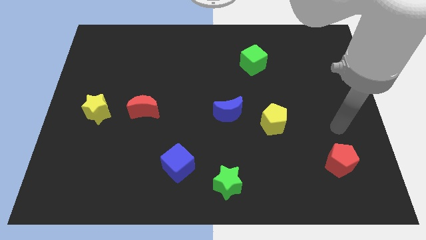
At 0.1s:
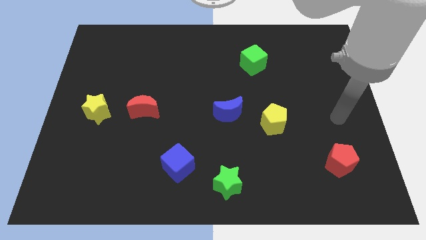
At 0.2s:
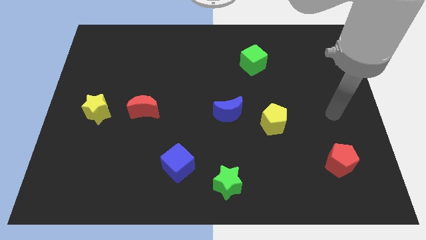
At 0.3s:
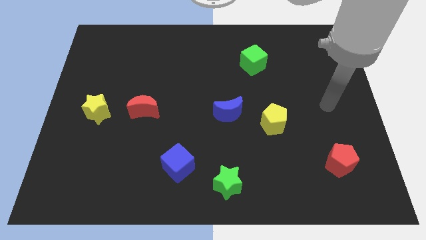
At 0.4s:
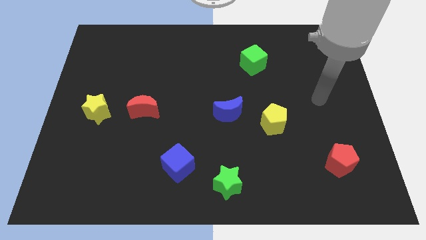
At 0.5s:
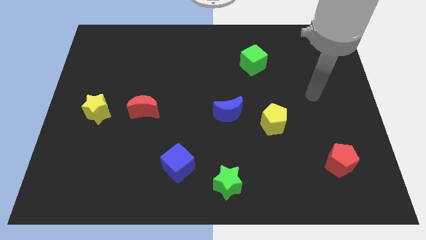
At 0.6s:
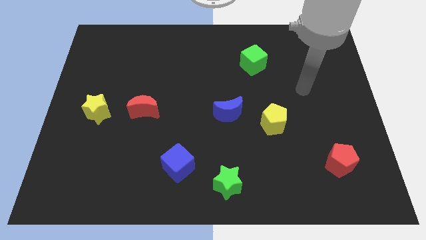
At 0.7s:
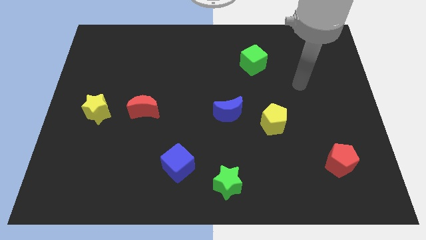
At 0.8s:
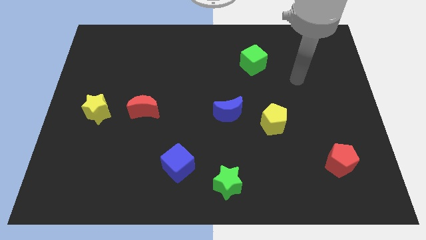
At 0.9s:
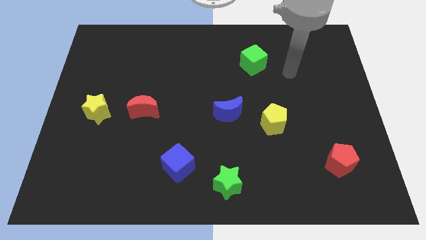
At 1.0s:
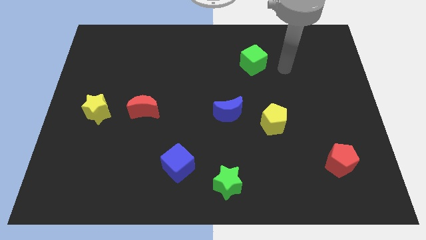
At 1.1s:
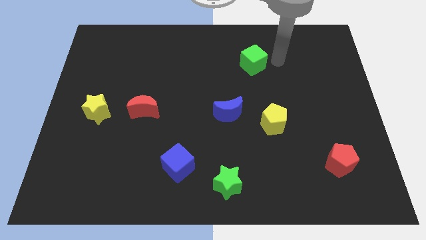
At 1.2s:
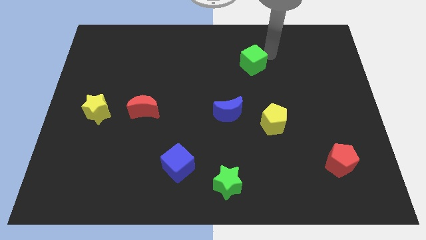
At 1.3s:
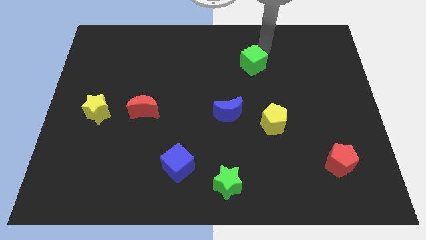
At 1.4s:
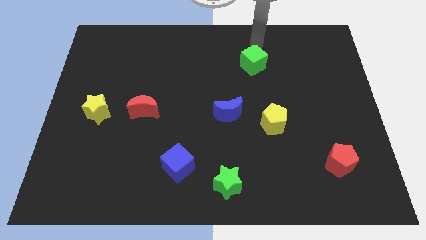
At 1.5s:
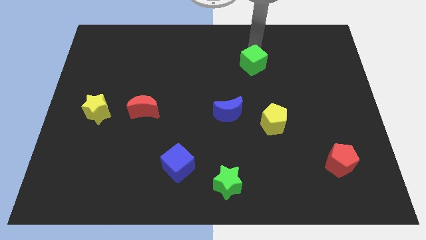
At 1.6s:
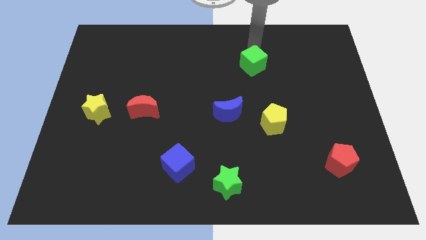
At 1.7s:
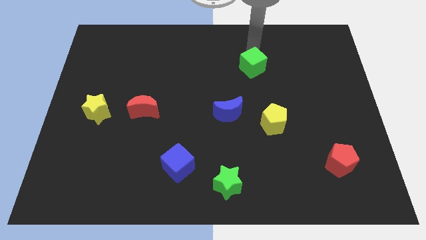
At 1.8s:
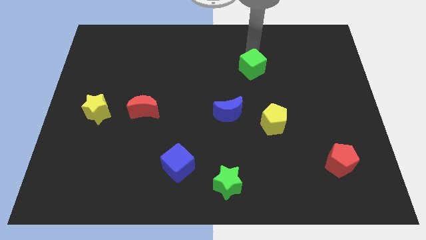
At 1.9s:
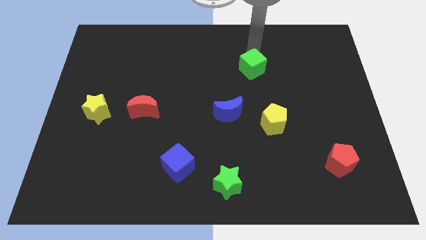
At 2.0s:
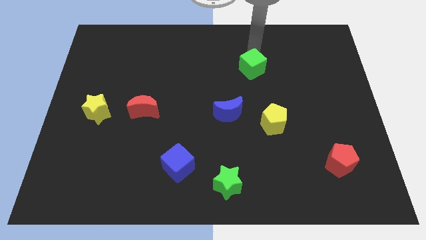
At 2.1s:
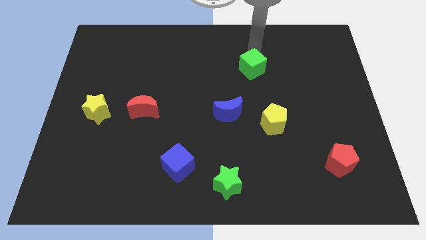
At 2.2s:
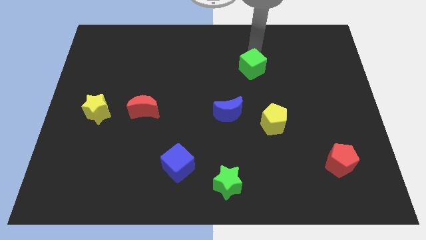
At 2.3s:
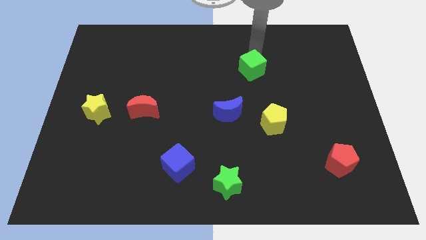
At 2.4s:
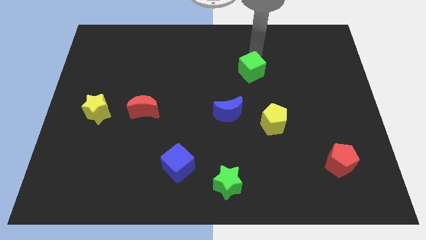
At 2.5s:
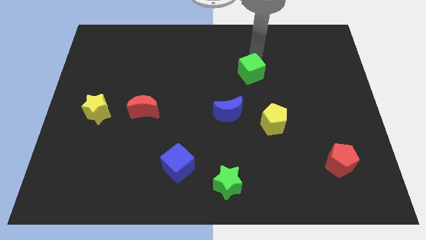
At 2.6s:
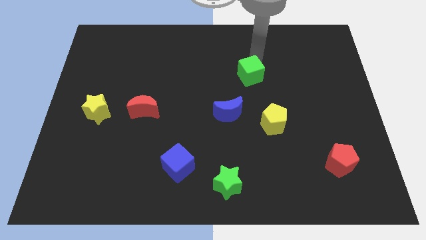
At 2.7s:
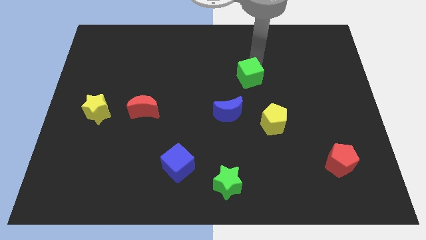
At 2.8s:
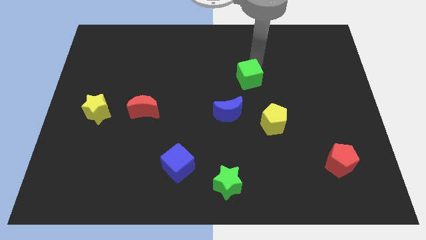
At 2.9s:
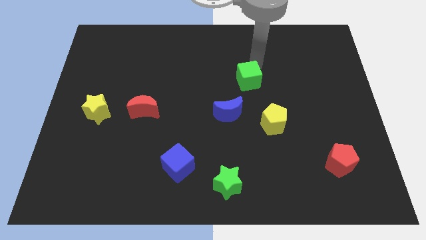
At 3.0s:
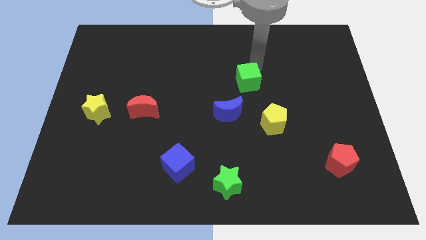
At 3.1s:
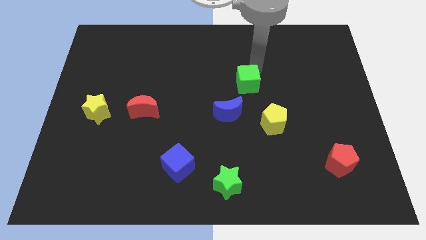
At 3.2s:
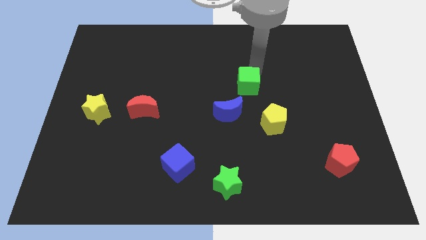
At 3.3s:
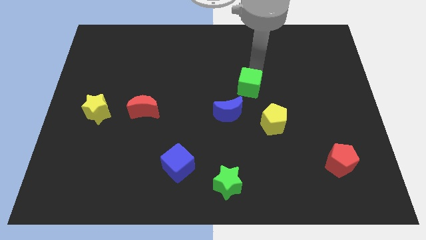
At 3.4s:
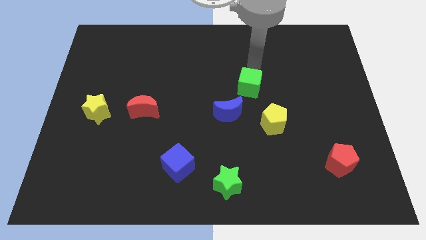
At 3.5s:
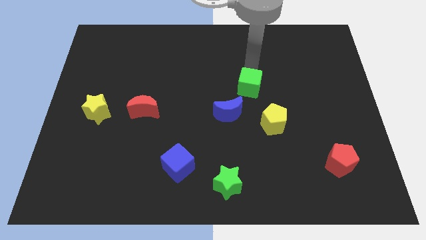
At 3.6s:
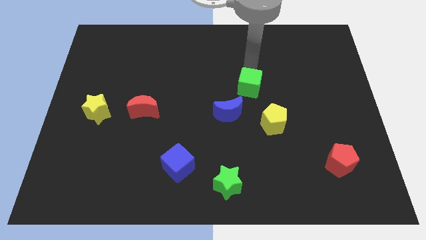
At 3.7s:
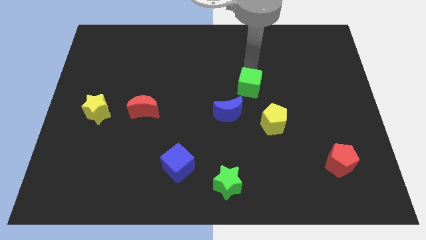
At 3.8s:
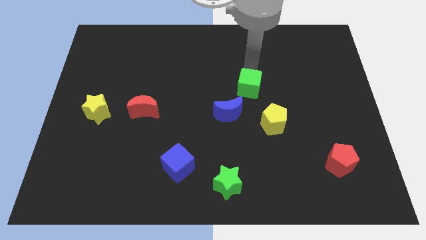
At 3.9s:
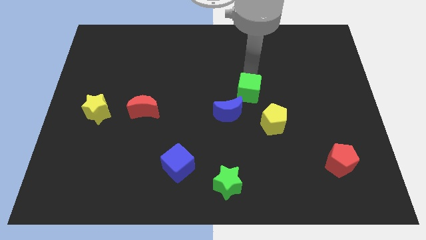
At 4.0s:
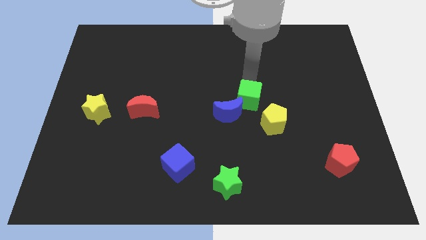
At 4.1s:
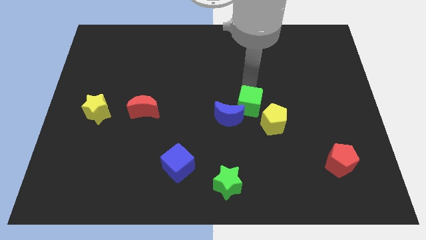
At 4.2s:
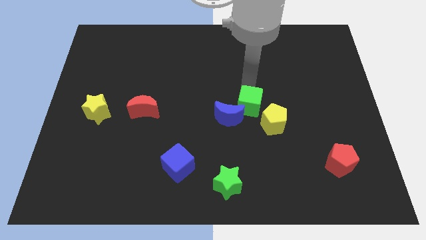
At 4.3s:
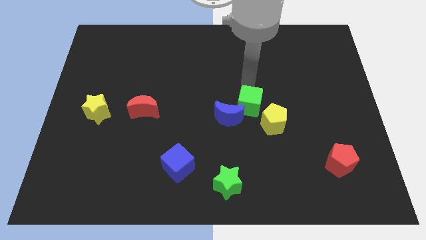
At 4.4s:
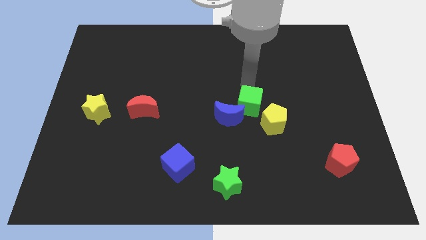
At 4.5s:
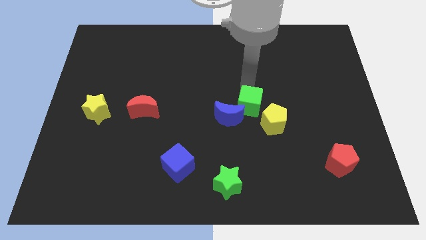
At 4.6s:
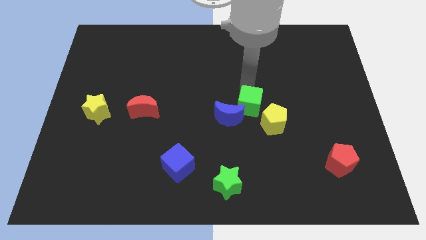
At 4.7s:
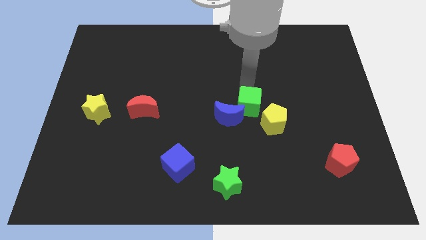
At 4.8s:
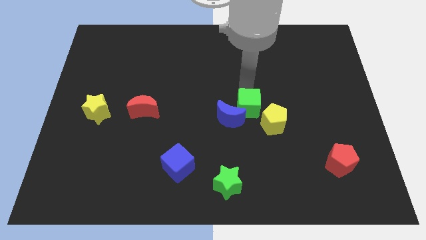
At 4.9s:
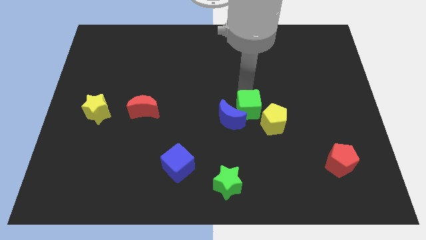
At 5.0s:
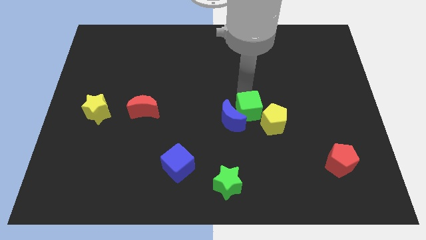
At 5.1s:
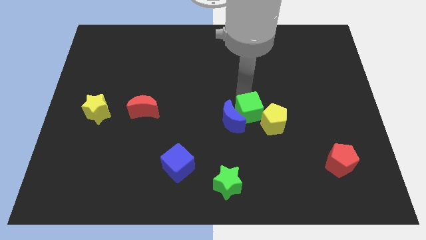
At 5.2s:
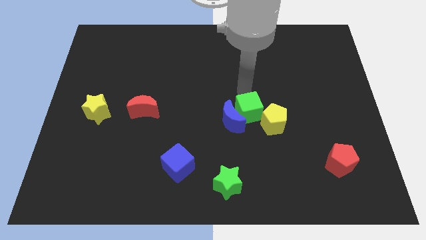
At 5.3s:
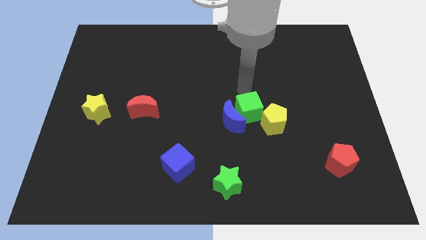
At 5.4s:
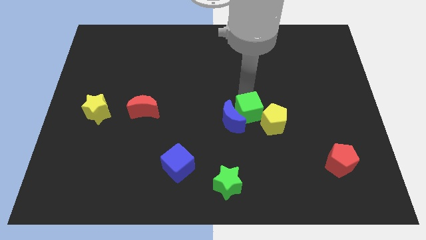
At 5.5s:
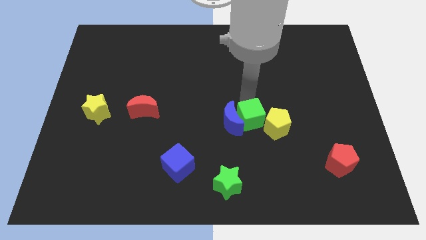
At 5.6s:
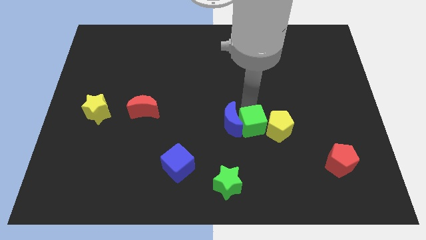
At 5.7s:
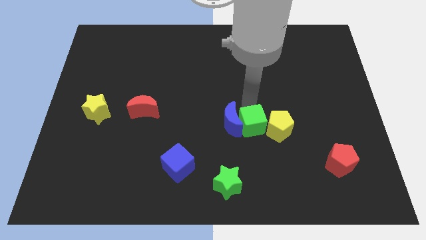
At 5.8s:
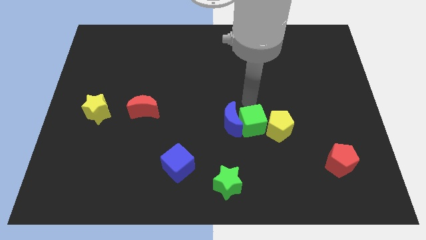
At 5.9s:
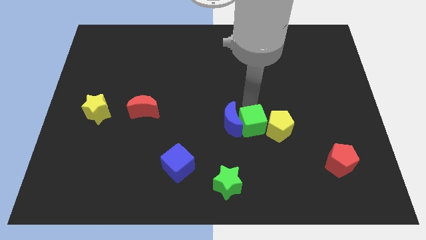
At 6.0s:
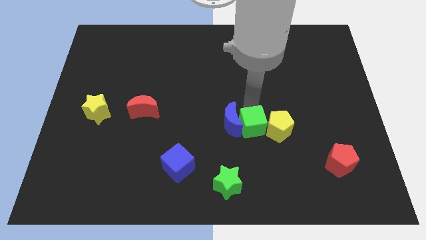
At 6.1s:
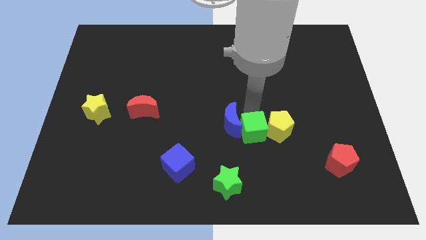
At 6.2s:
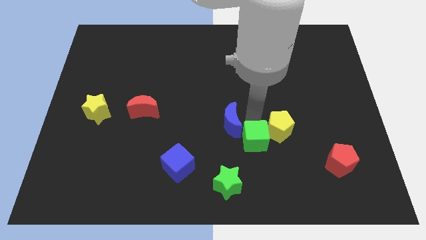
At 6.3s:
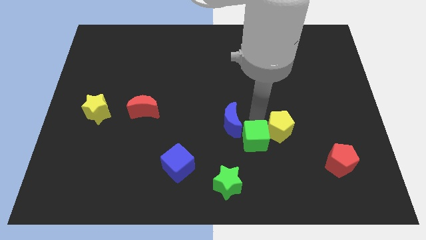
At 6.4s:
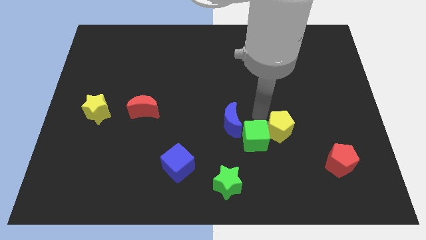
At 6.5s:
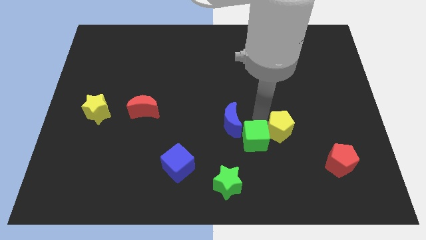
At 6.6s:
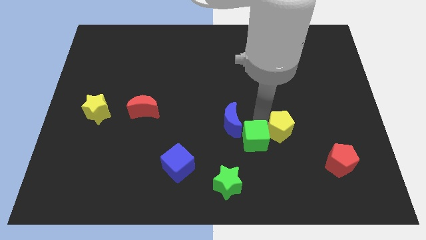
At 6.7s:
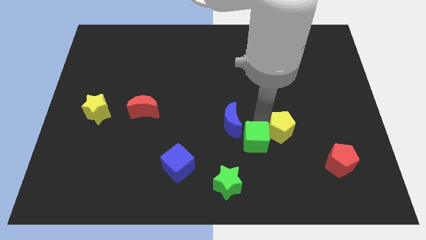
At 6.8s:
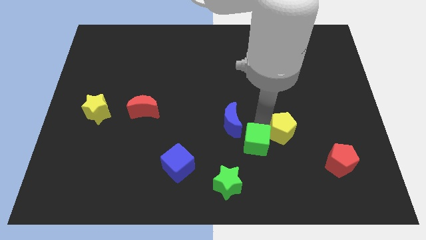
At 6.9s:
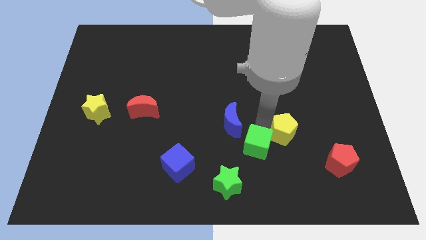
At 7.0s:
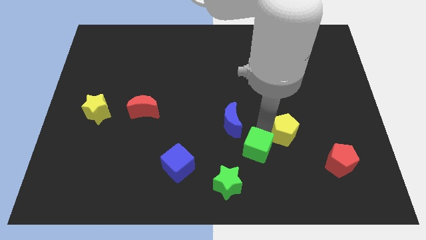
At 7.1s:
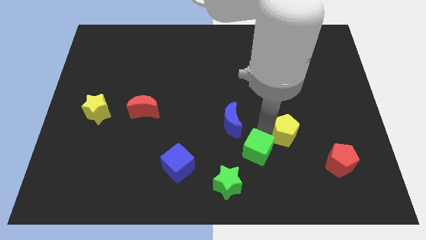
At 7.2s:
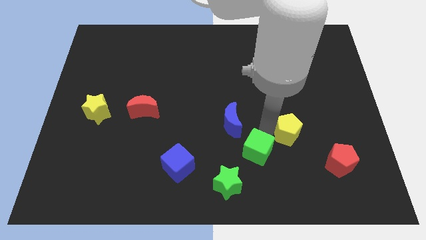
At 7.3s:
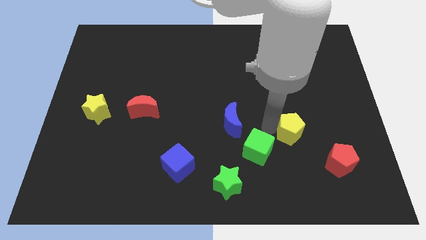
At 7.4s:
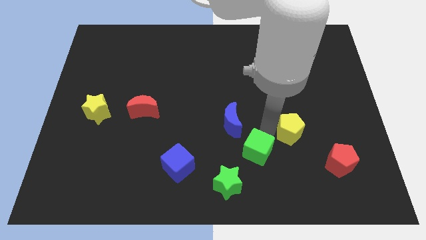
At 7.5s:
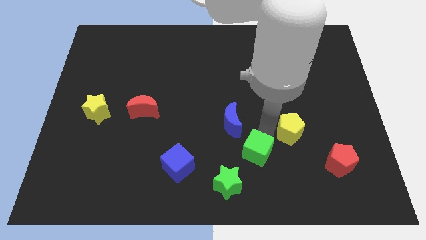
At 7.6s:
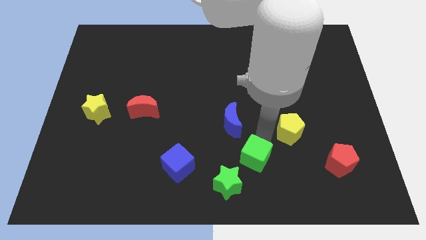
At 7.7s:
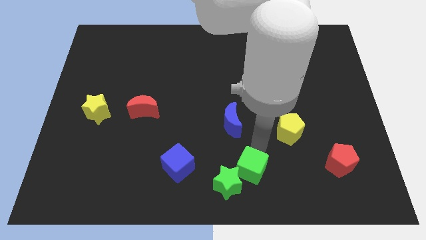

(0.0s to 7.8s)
put the green cube to the bottom
